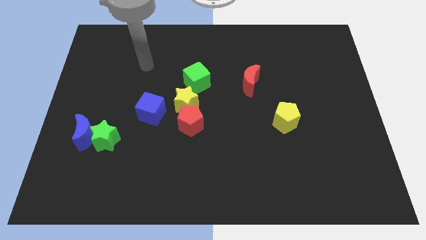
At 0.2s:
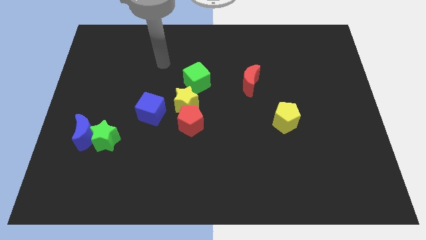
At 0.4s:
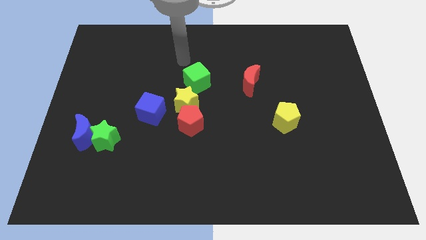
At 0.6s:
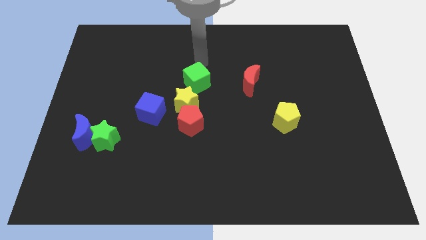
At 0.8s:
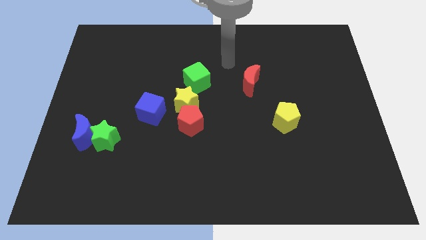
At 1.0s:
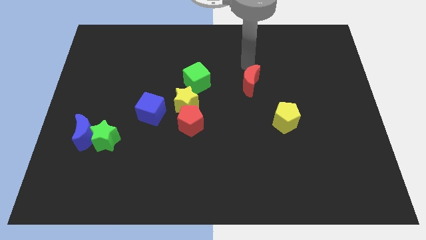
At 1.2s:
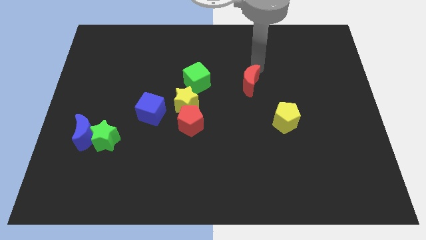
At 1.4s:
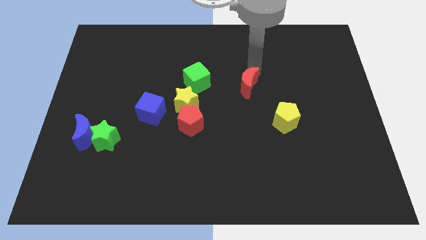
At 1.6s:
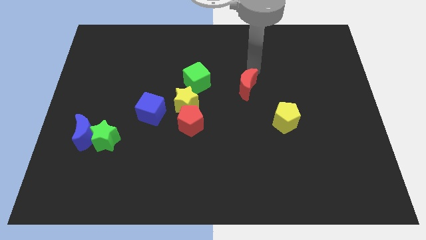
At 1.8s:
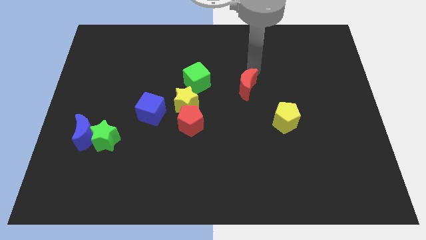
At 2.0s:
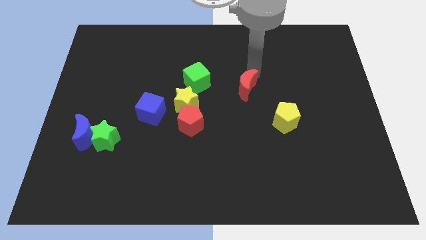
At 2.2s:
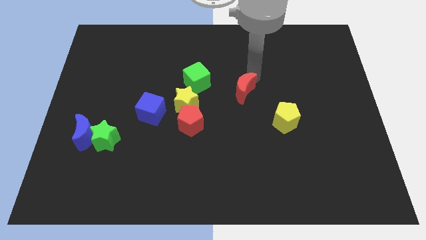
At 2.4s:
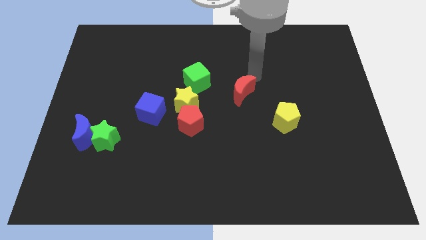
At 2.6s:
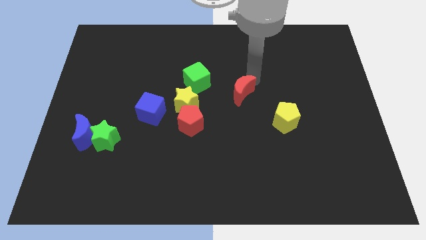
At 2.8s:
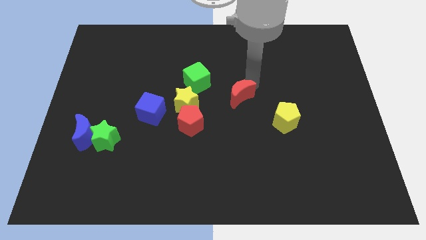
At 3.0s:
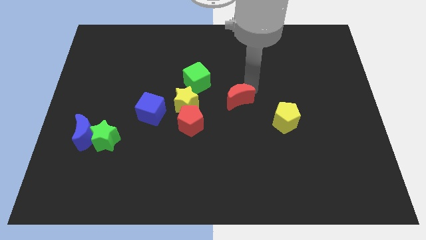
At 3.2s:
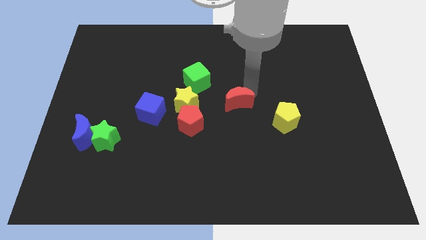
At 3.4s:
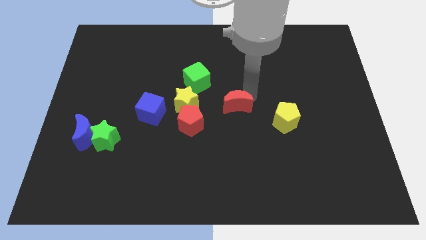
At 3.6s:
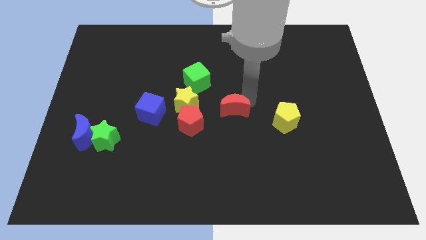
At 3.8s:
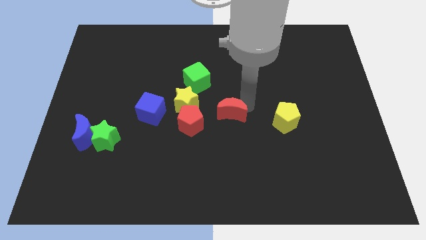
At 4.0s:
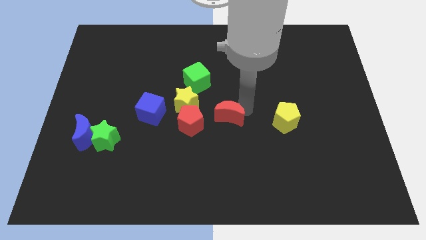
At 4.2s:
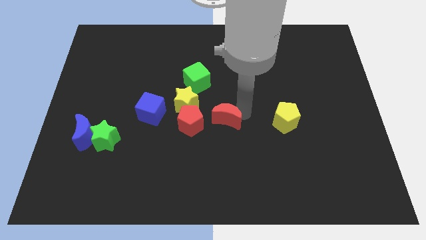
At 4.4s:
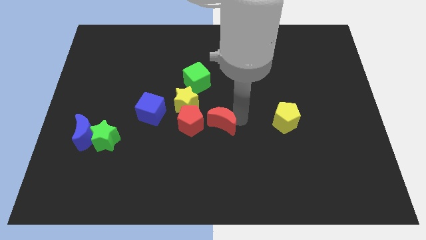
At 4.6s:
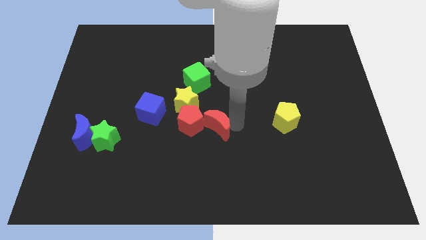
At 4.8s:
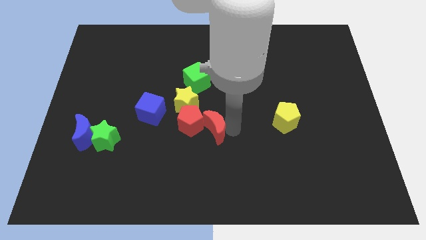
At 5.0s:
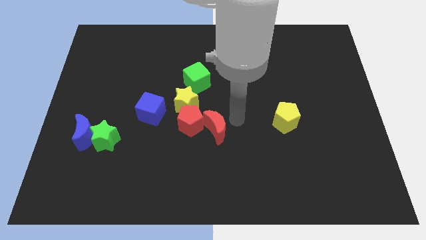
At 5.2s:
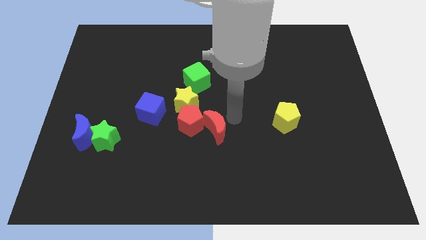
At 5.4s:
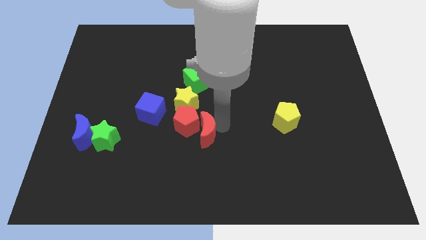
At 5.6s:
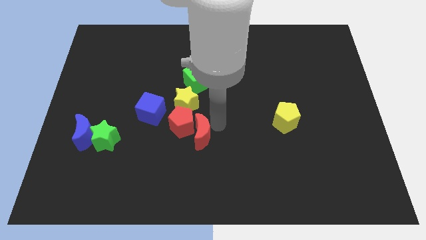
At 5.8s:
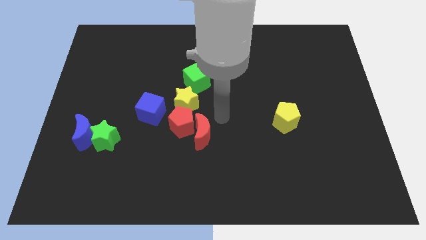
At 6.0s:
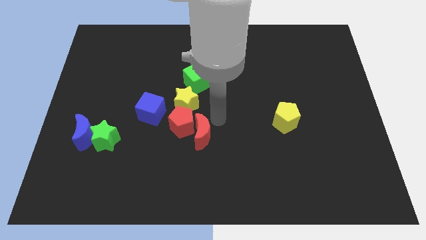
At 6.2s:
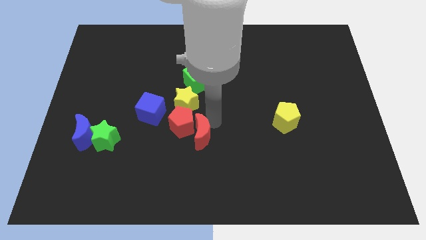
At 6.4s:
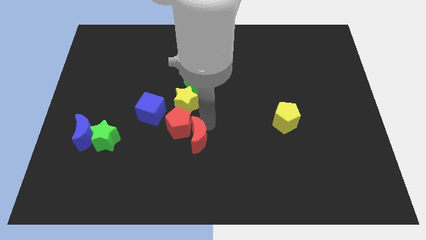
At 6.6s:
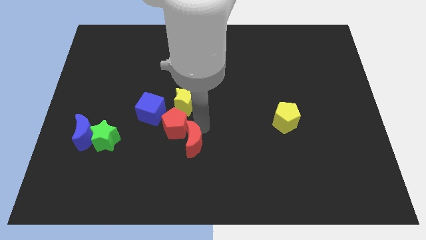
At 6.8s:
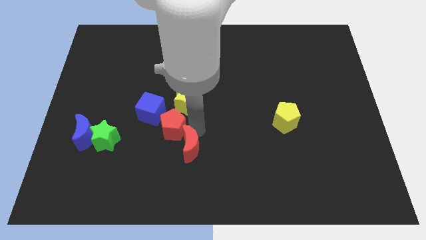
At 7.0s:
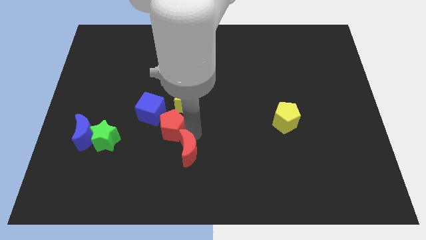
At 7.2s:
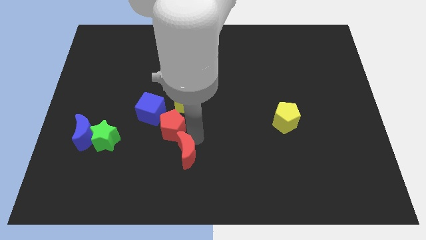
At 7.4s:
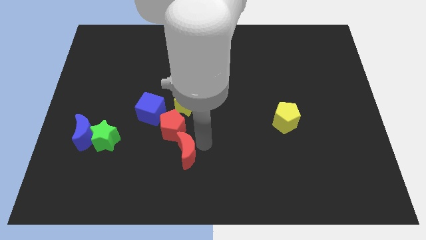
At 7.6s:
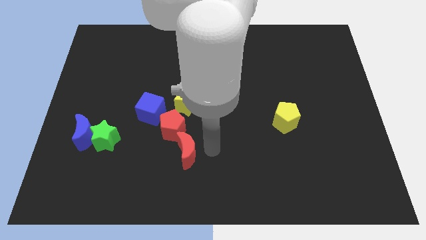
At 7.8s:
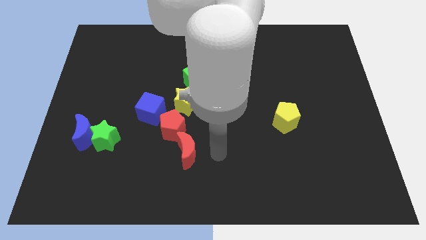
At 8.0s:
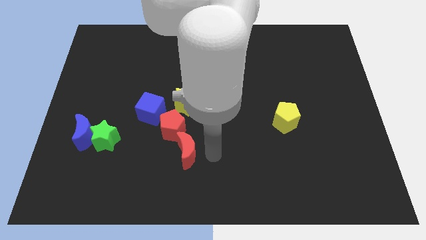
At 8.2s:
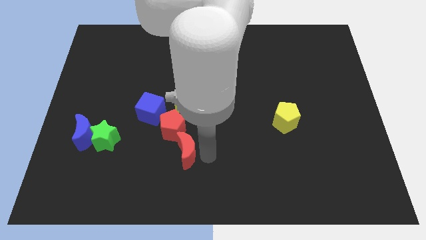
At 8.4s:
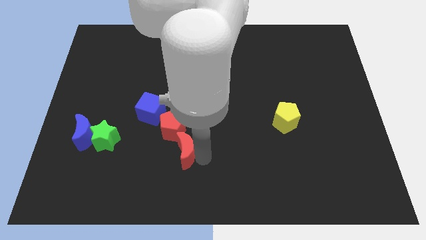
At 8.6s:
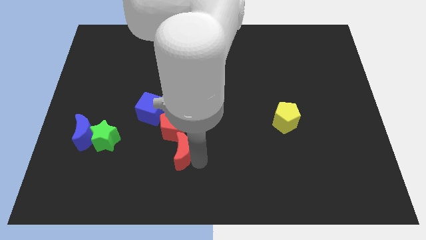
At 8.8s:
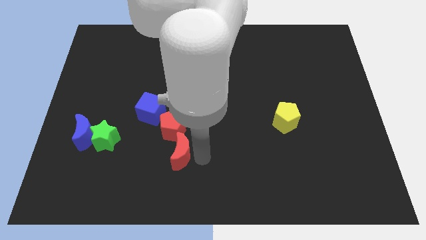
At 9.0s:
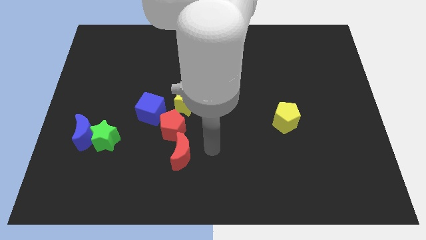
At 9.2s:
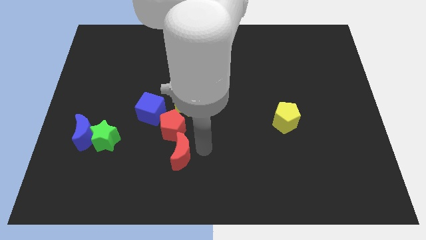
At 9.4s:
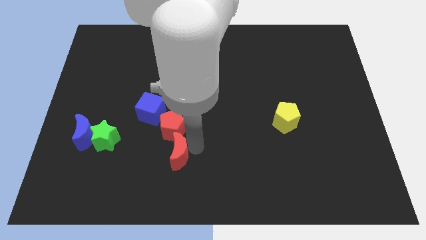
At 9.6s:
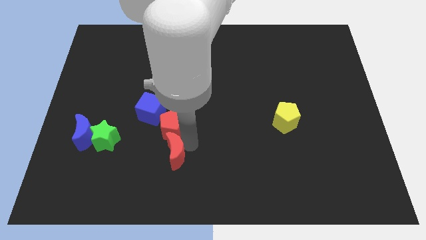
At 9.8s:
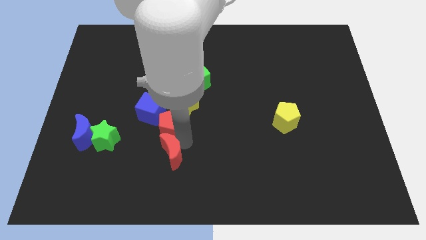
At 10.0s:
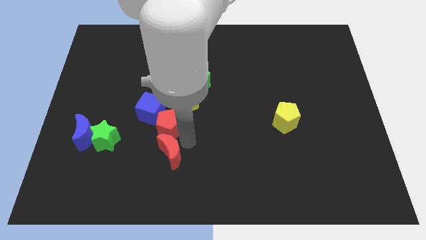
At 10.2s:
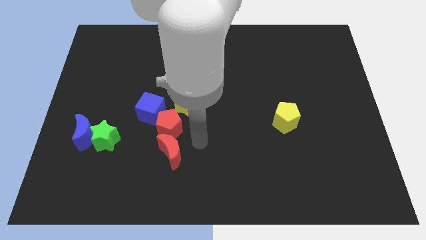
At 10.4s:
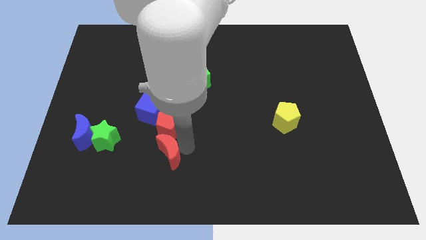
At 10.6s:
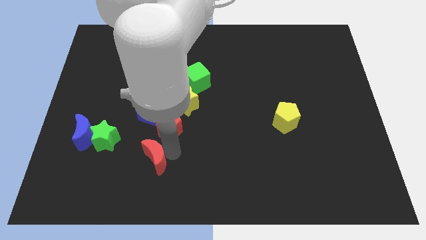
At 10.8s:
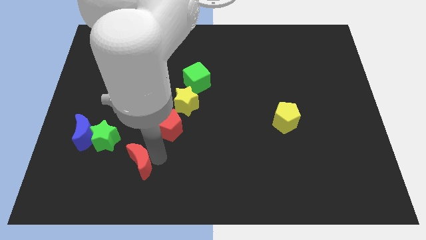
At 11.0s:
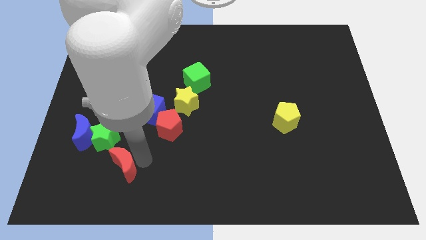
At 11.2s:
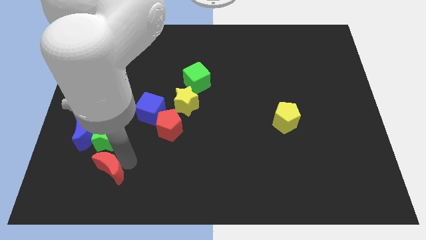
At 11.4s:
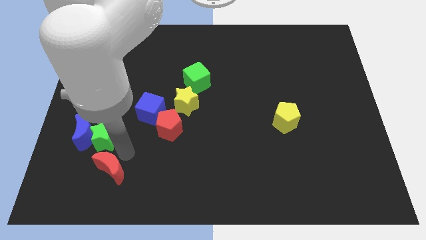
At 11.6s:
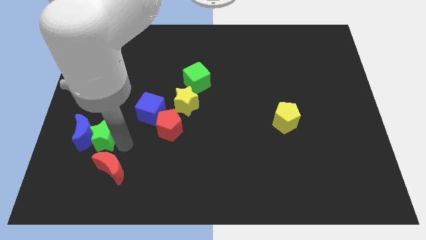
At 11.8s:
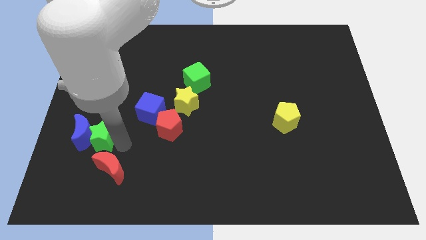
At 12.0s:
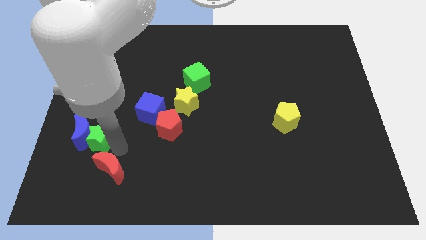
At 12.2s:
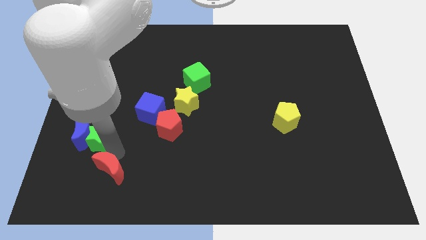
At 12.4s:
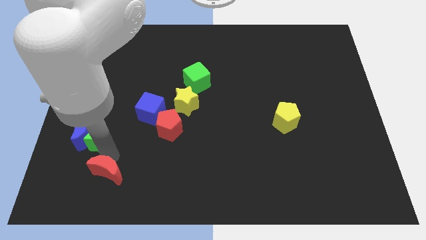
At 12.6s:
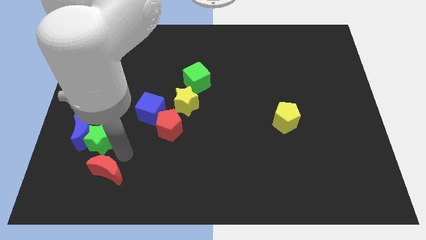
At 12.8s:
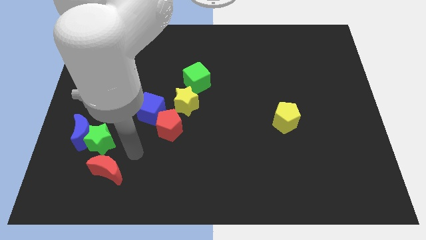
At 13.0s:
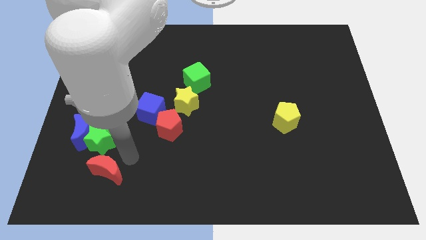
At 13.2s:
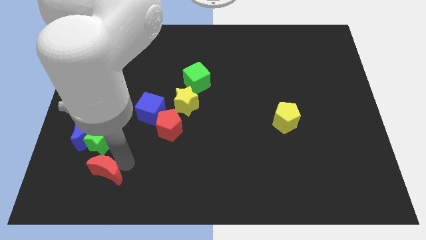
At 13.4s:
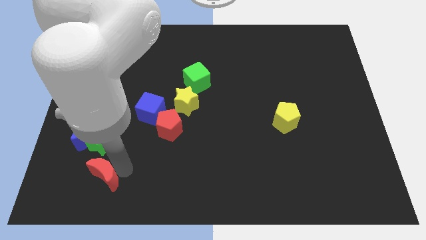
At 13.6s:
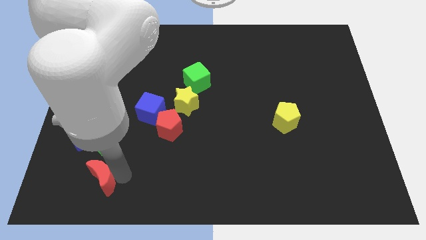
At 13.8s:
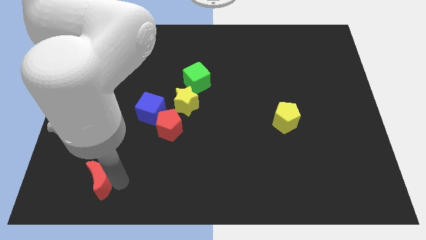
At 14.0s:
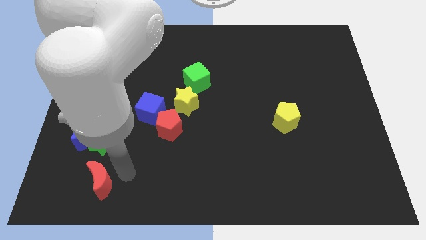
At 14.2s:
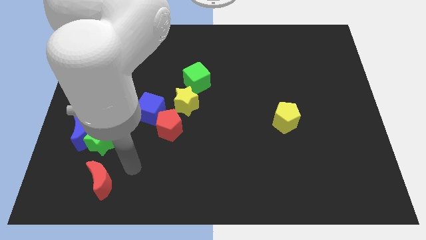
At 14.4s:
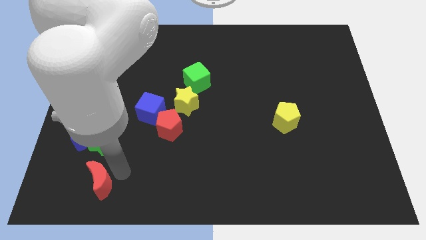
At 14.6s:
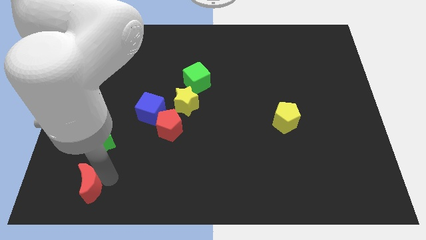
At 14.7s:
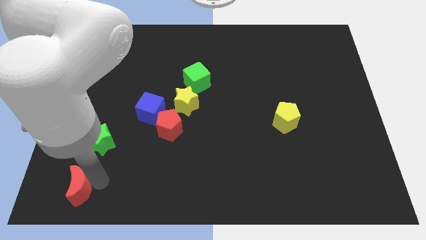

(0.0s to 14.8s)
move the red moon to the lower left corner
